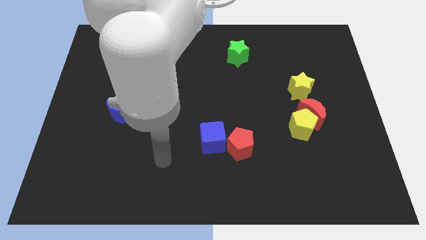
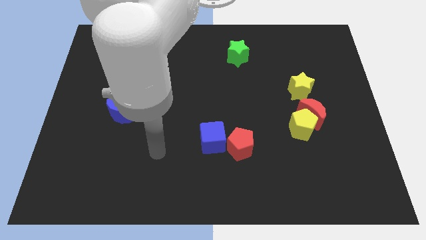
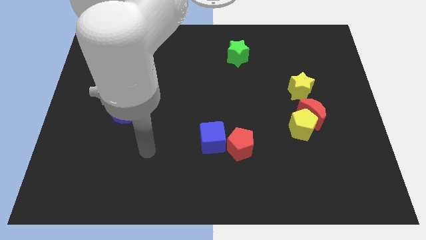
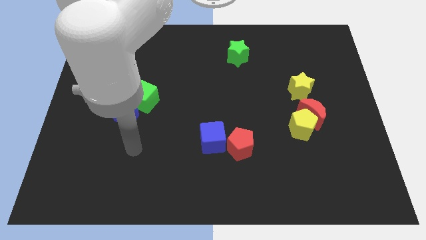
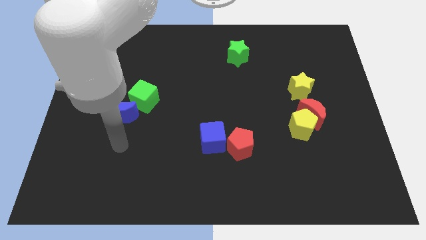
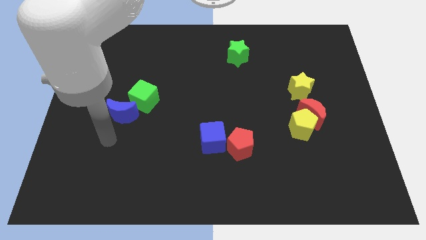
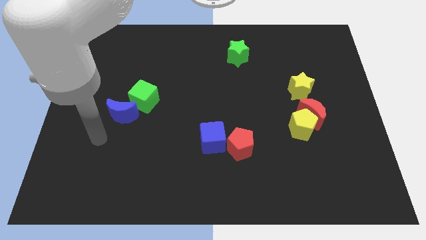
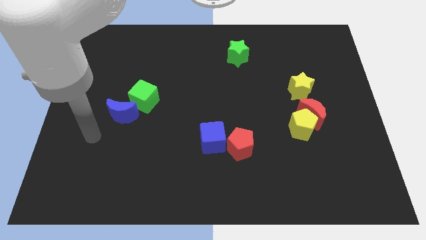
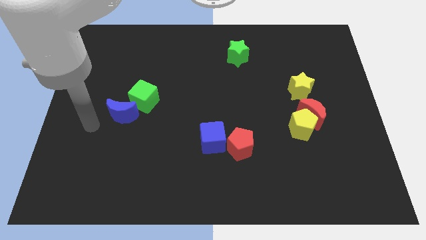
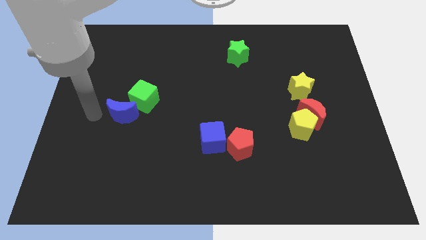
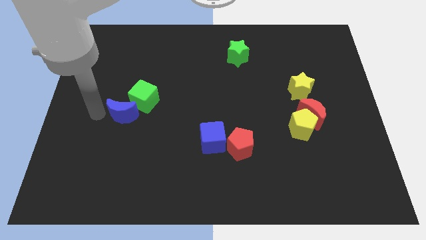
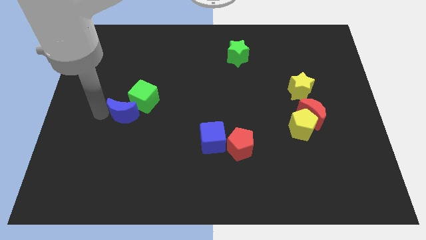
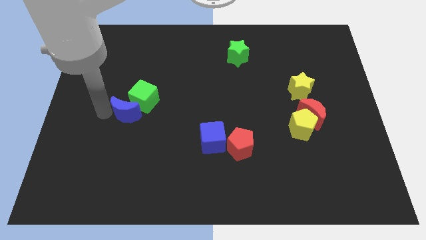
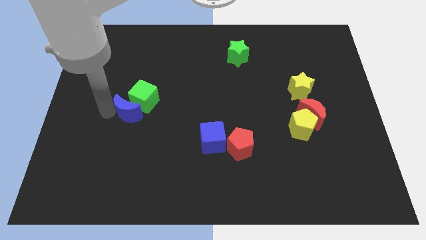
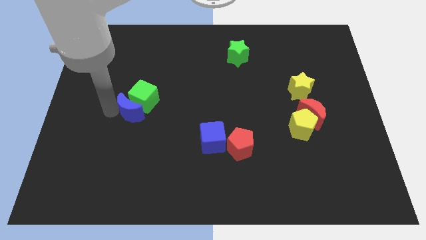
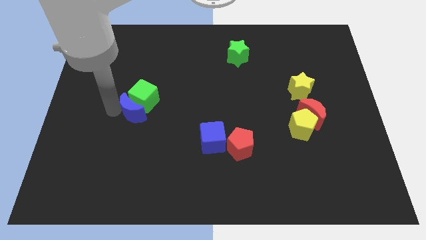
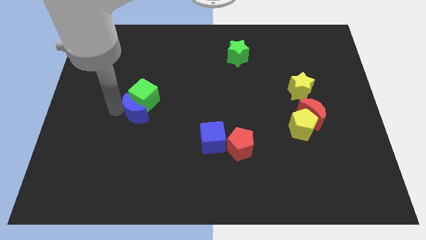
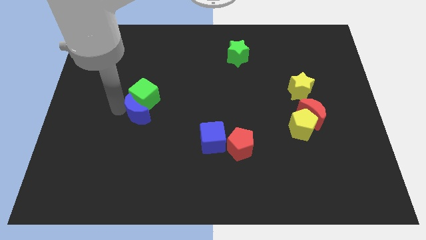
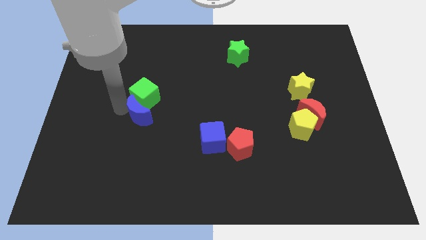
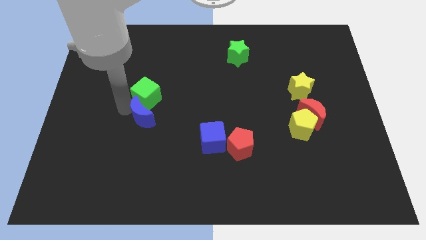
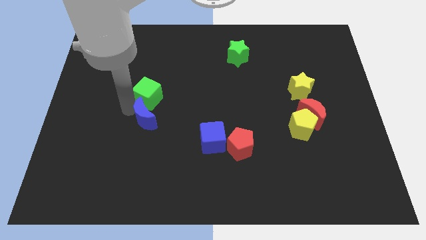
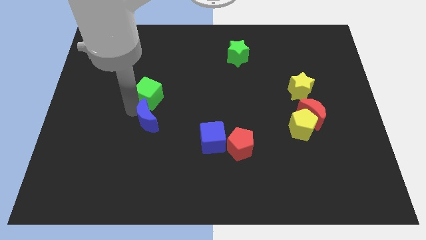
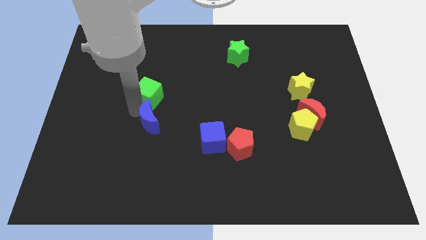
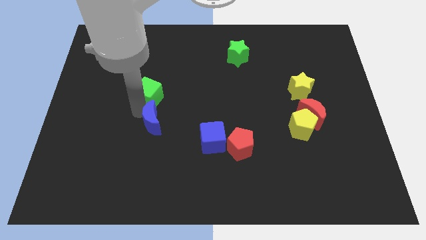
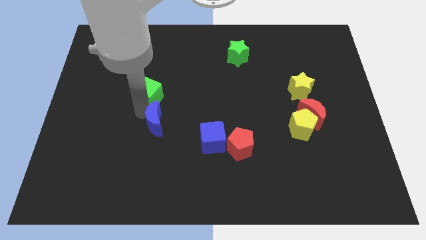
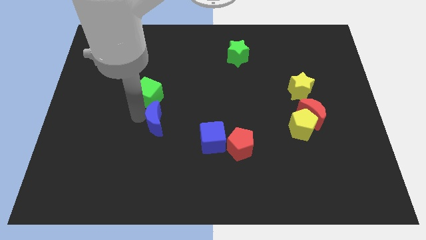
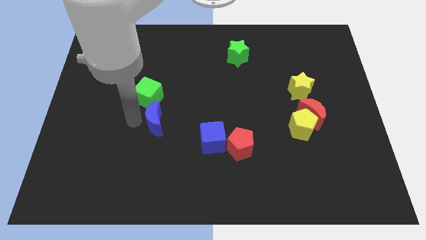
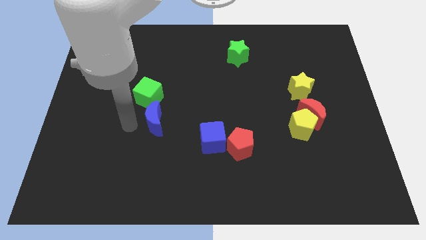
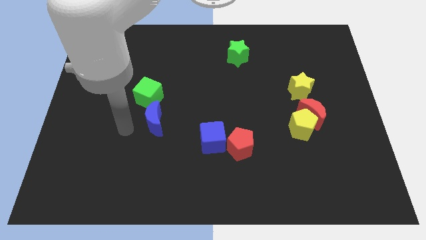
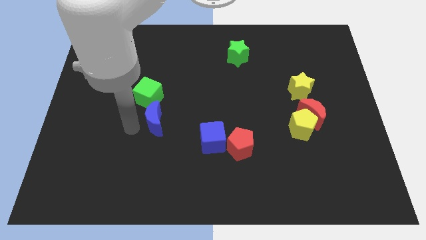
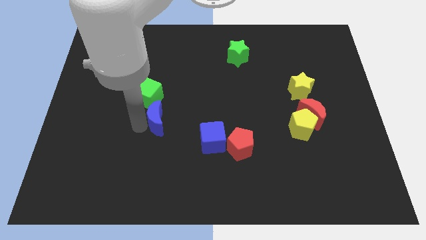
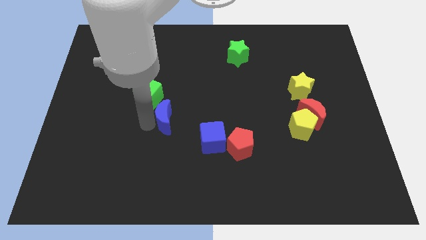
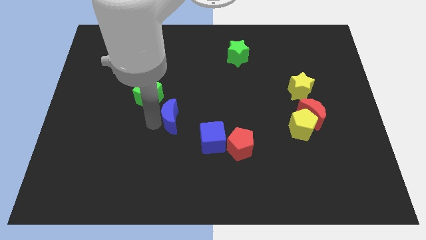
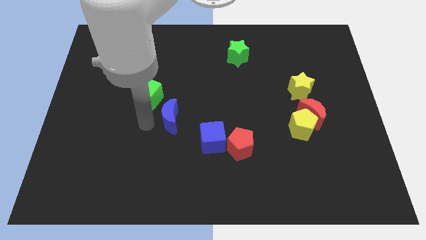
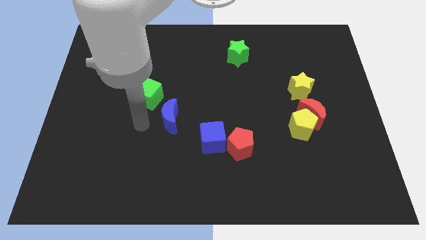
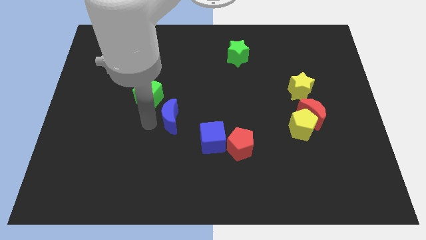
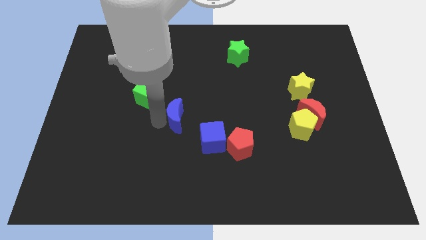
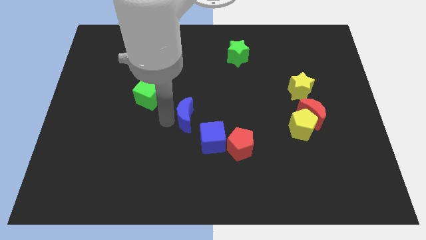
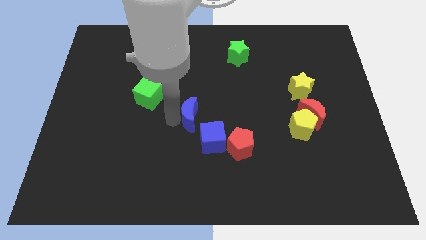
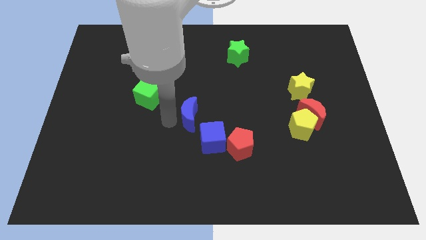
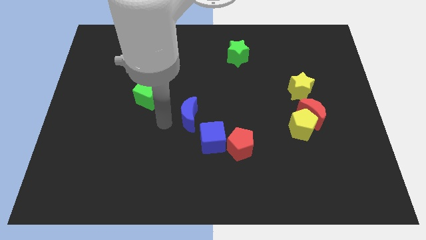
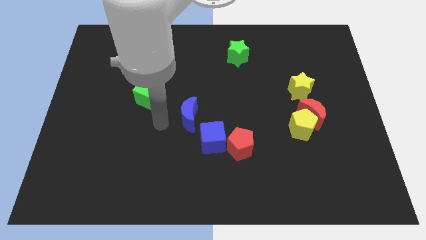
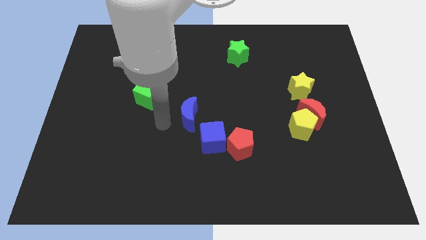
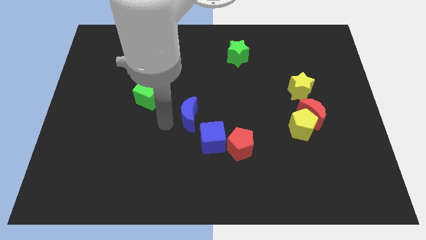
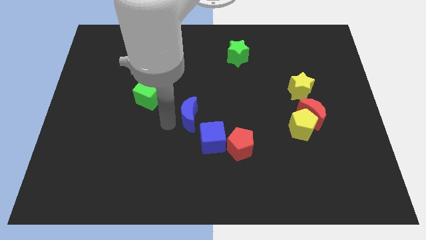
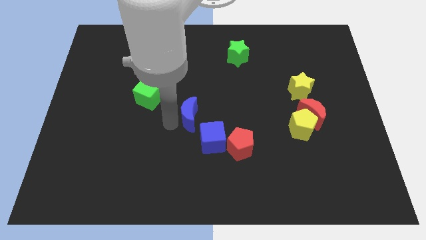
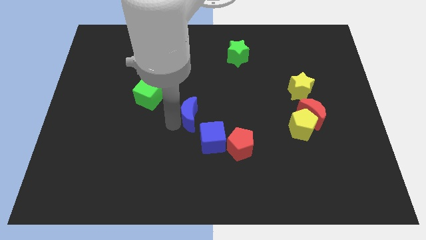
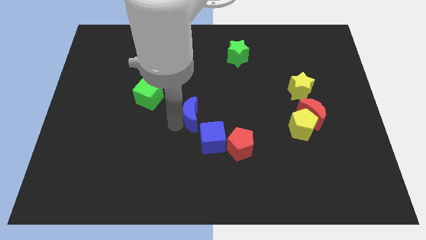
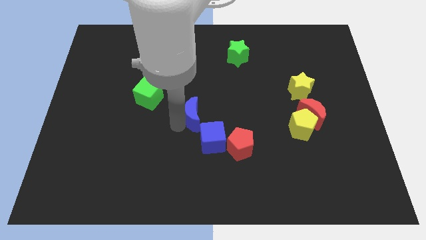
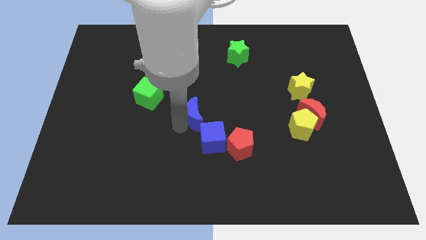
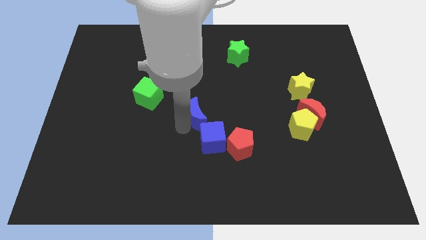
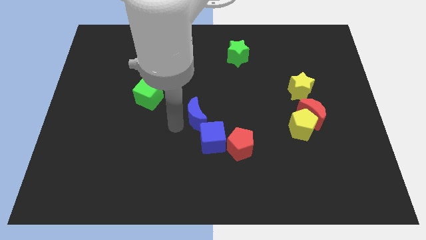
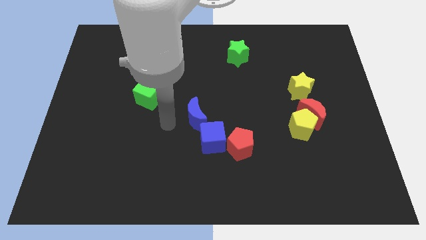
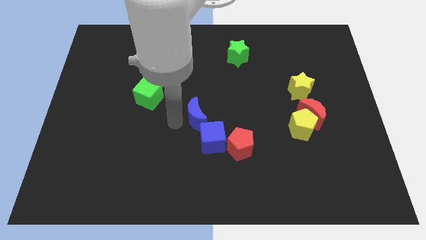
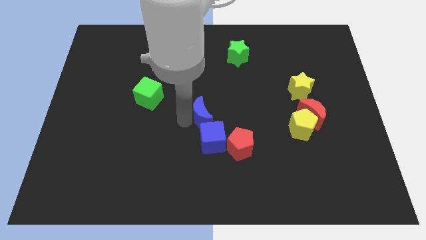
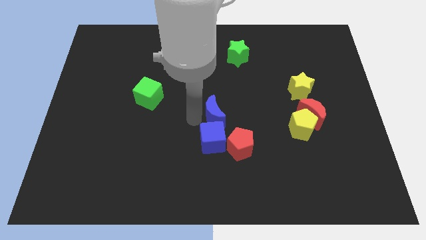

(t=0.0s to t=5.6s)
push the blue moon right

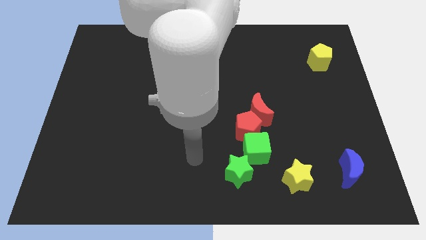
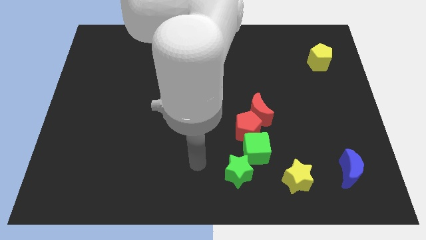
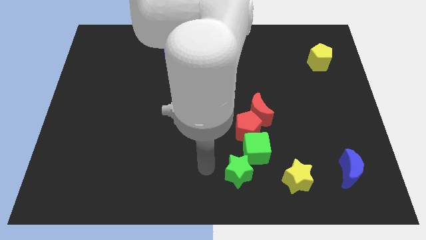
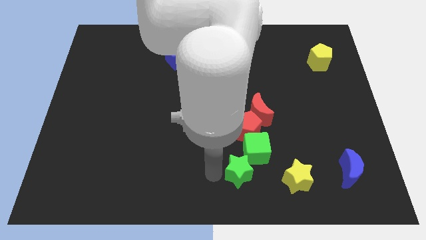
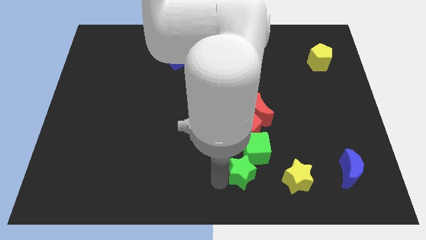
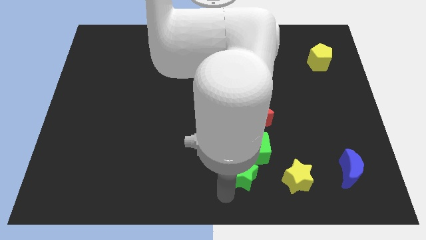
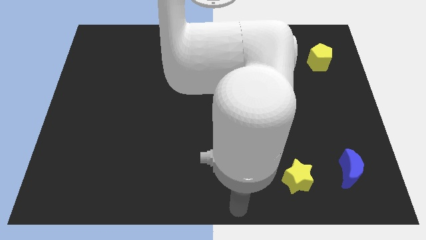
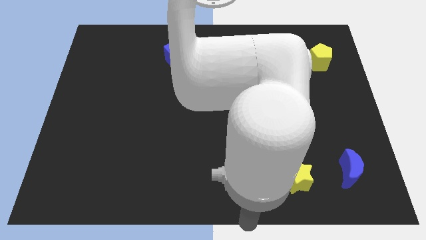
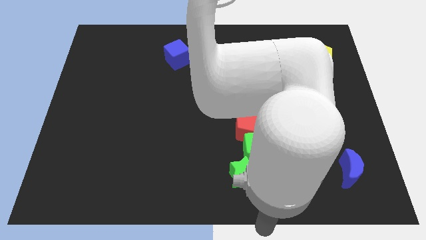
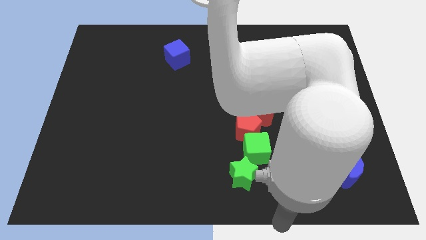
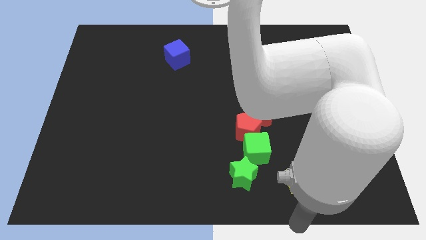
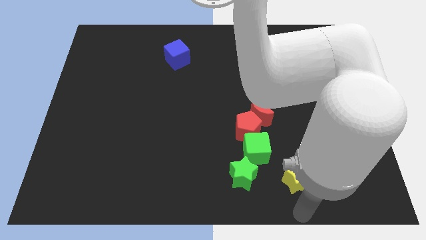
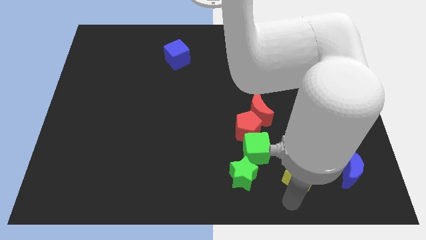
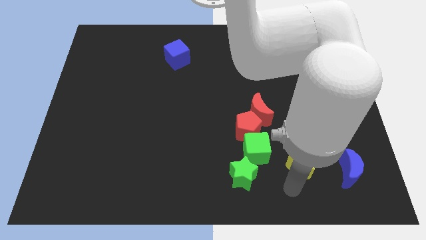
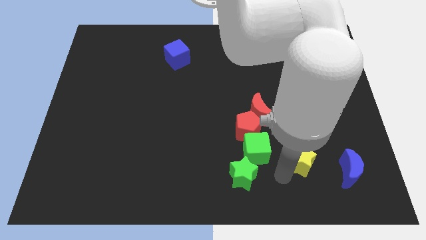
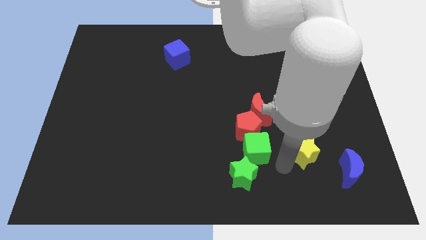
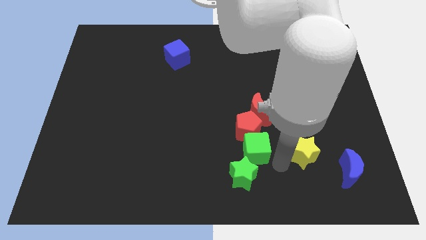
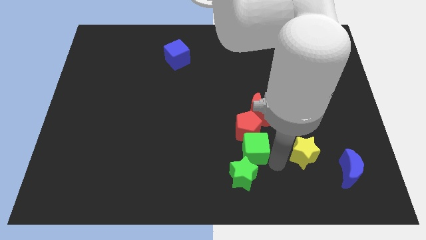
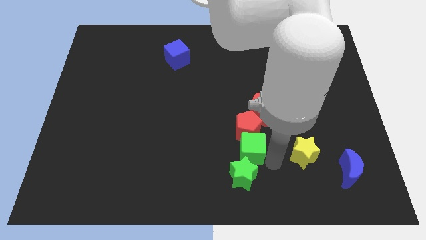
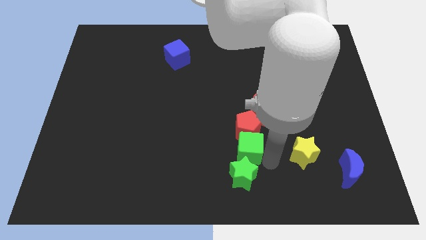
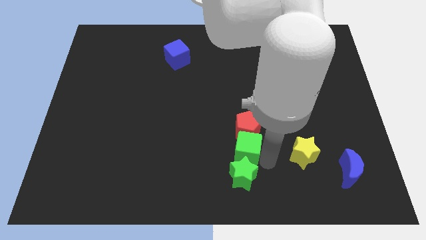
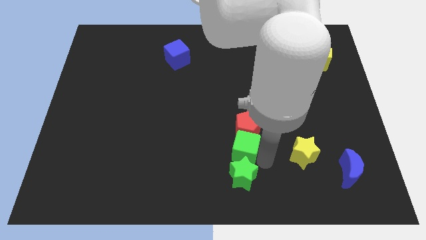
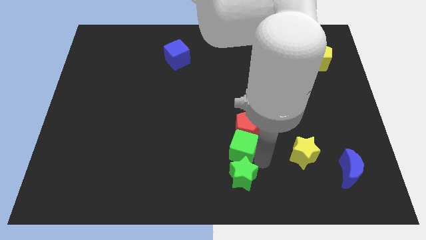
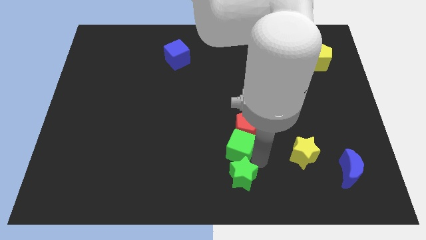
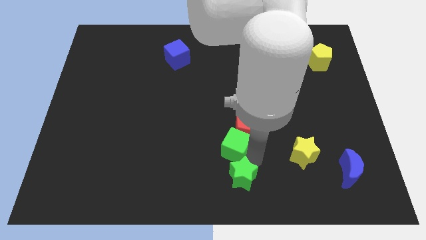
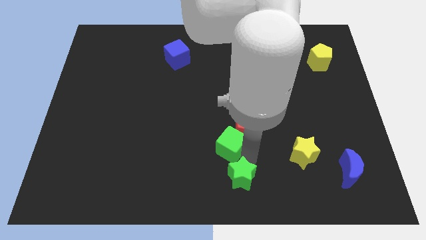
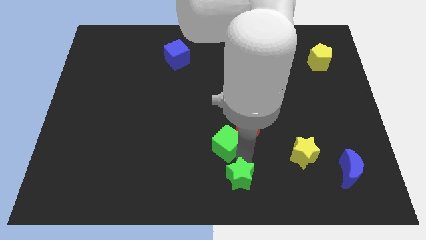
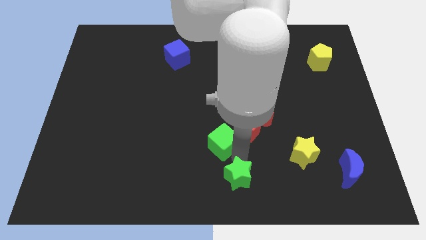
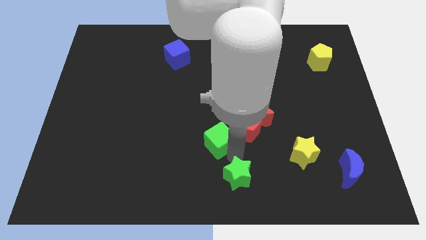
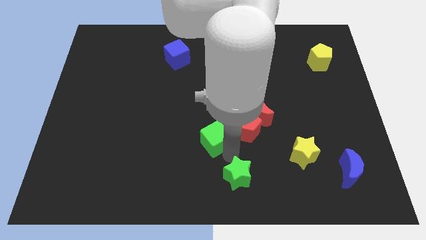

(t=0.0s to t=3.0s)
move the green cube somewhat upwards and left
